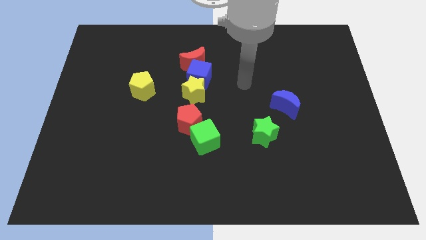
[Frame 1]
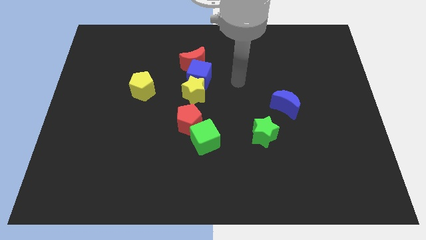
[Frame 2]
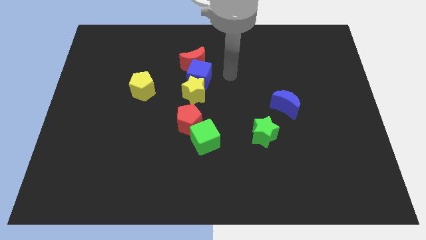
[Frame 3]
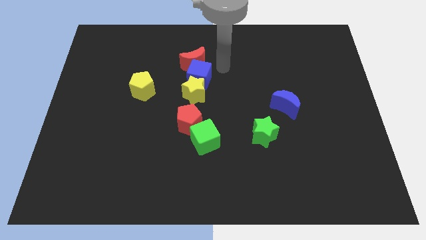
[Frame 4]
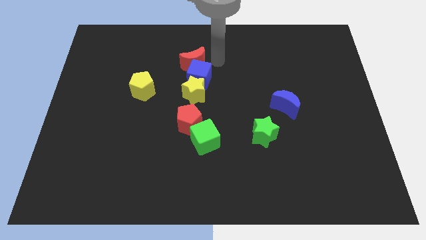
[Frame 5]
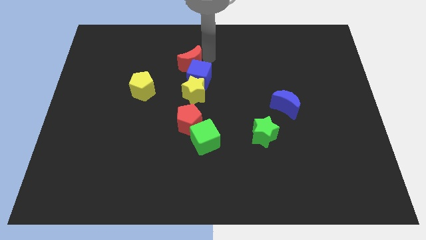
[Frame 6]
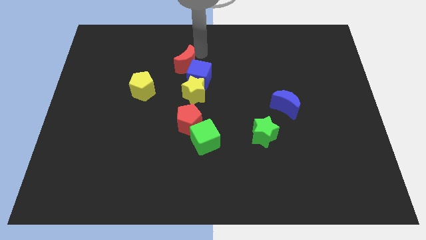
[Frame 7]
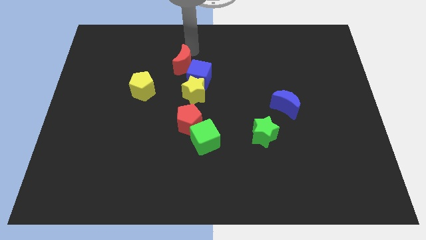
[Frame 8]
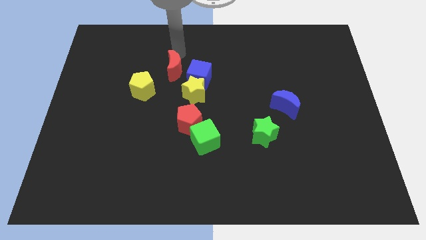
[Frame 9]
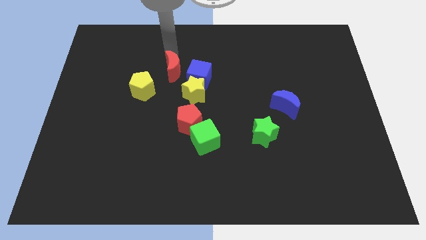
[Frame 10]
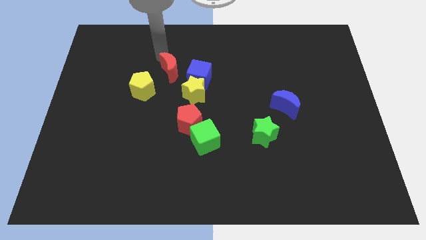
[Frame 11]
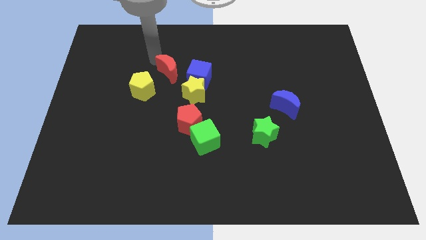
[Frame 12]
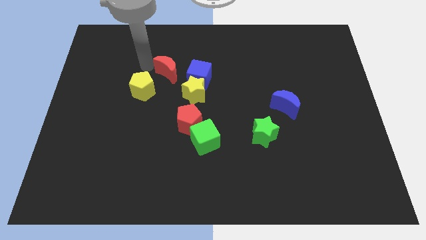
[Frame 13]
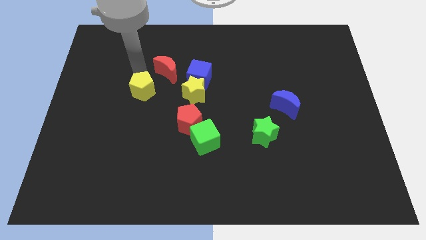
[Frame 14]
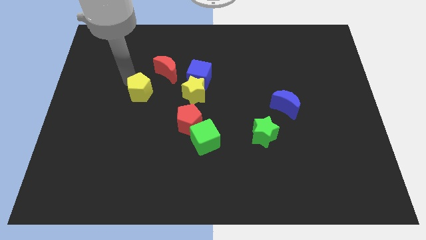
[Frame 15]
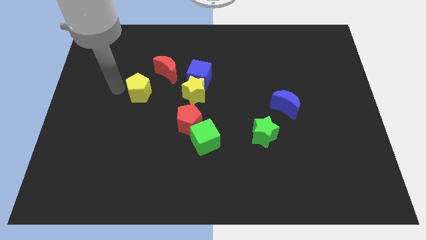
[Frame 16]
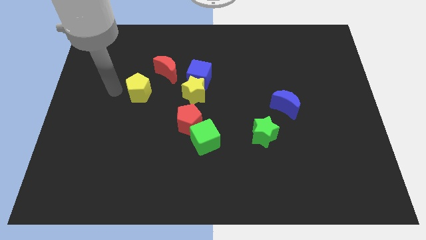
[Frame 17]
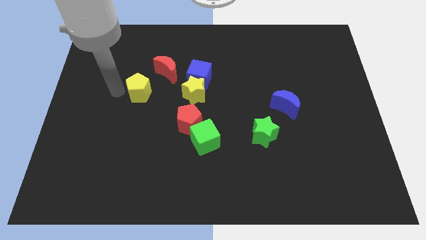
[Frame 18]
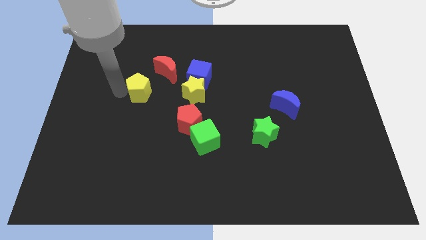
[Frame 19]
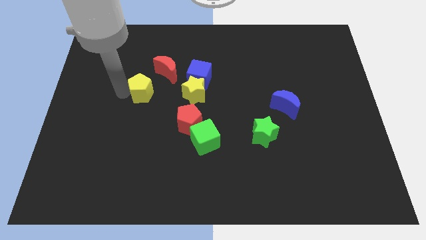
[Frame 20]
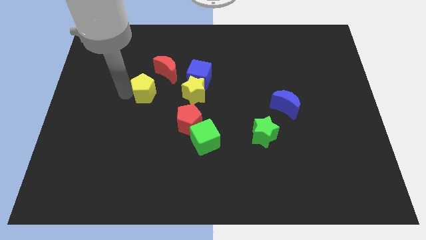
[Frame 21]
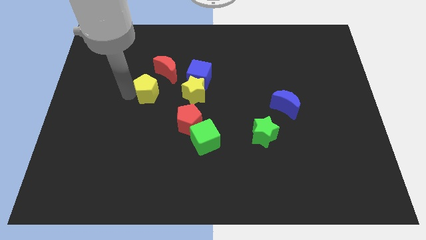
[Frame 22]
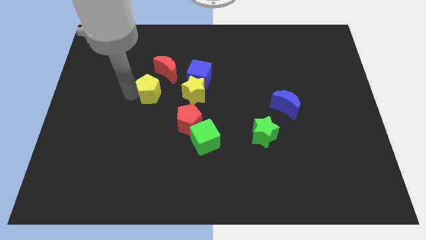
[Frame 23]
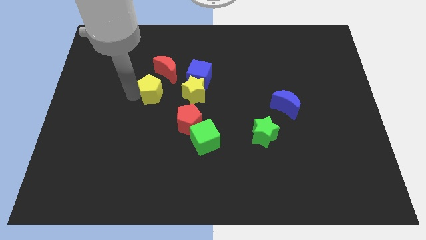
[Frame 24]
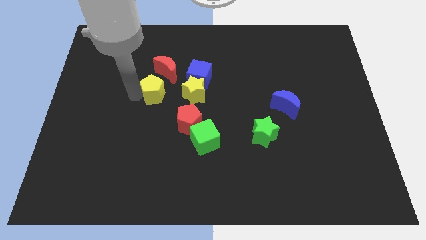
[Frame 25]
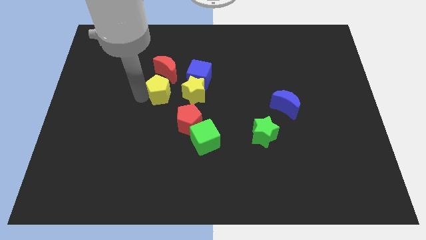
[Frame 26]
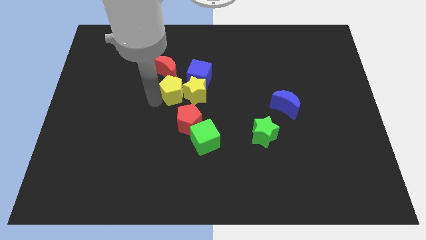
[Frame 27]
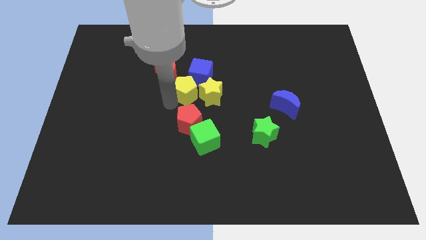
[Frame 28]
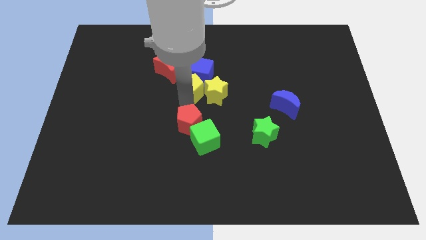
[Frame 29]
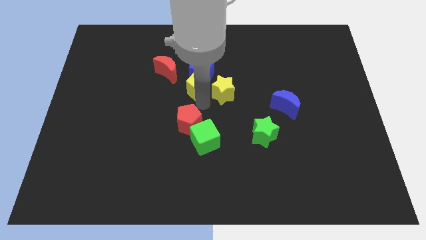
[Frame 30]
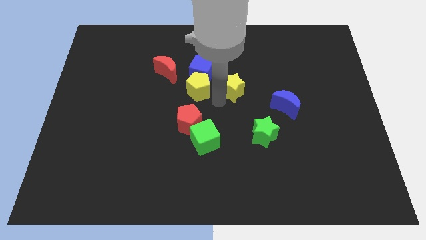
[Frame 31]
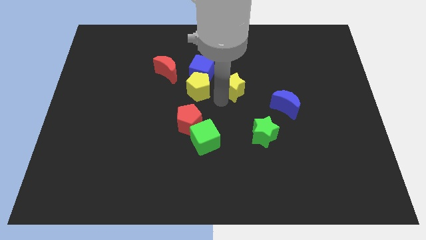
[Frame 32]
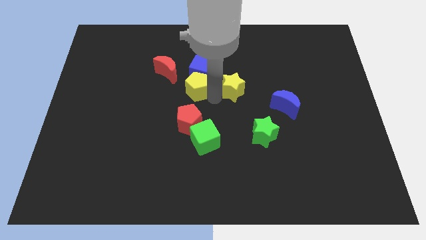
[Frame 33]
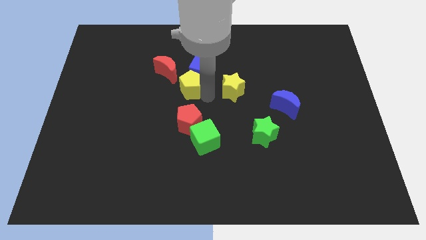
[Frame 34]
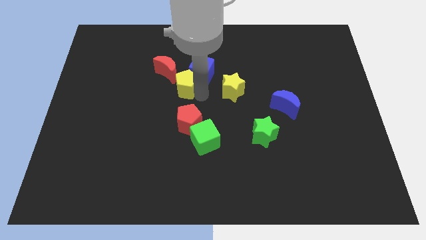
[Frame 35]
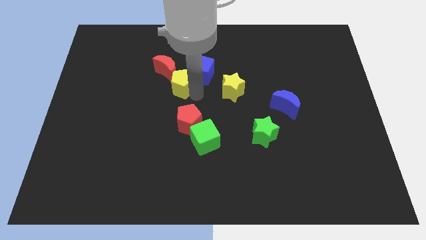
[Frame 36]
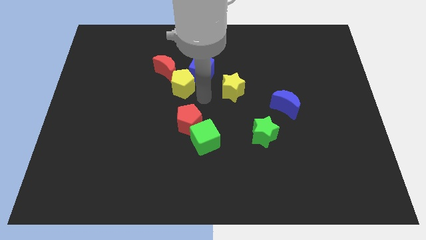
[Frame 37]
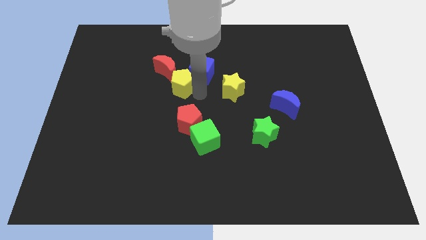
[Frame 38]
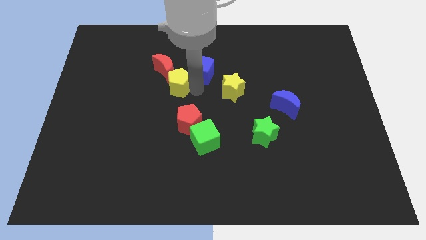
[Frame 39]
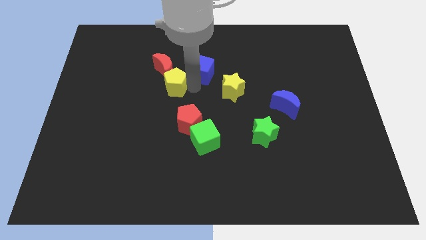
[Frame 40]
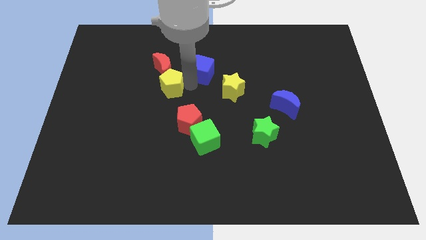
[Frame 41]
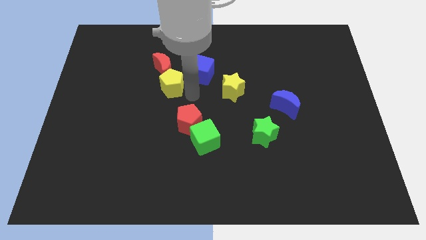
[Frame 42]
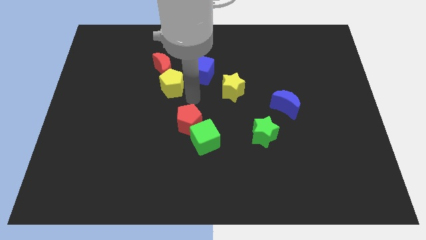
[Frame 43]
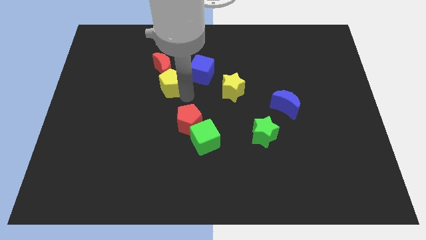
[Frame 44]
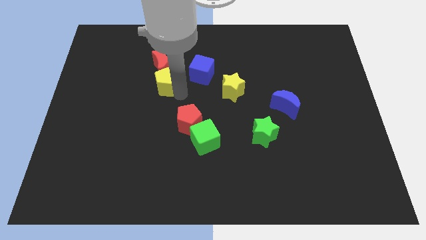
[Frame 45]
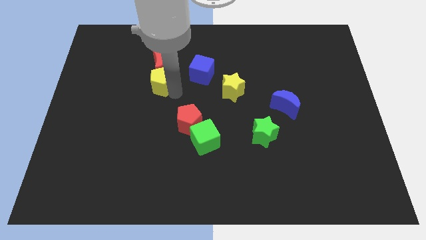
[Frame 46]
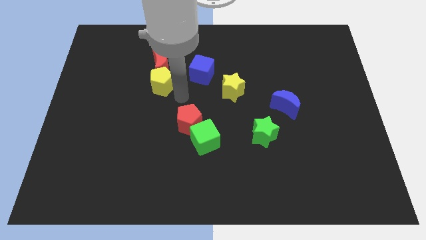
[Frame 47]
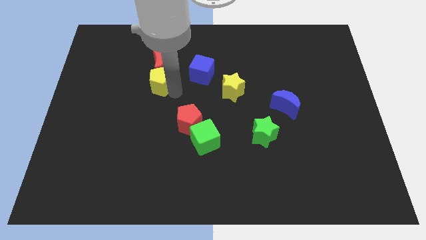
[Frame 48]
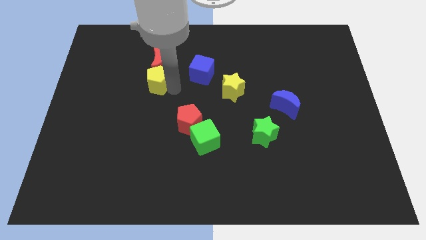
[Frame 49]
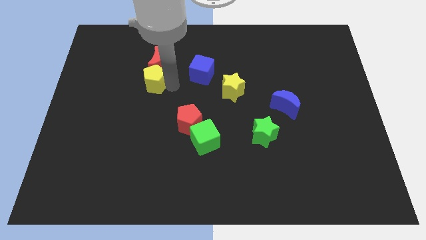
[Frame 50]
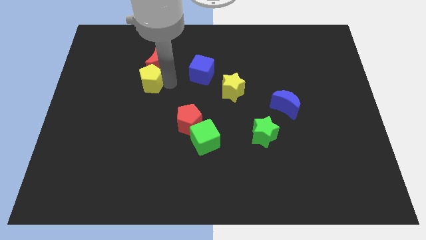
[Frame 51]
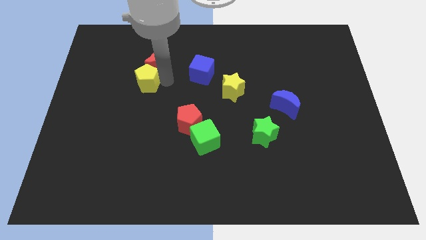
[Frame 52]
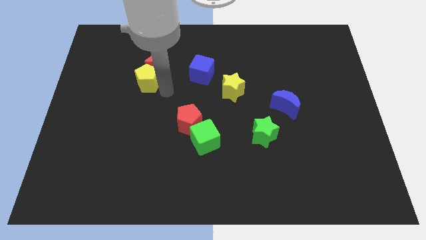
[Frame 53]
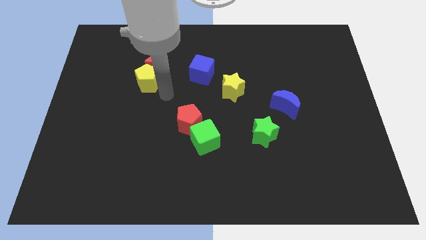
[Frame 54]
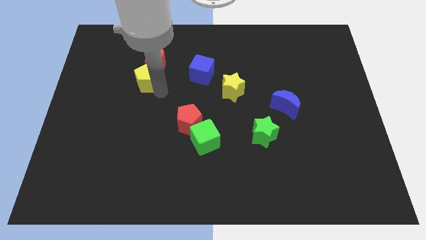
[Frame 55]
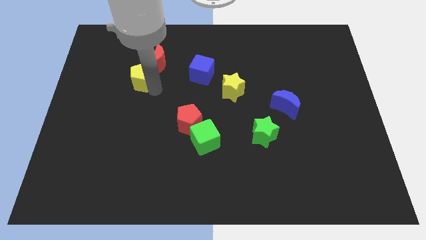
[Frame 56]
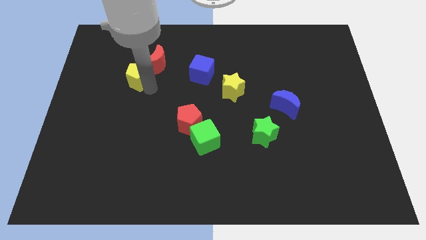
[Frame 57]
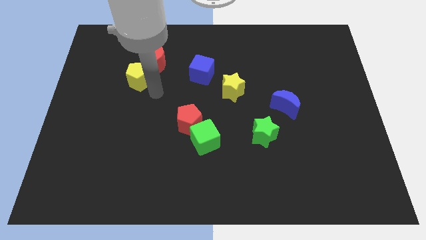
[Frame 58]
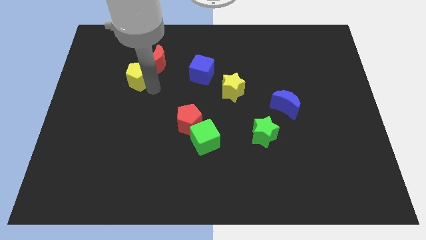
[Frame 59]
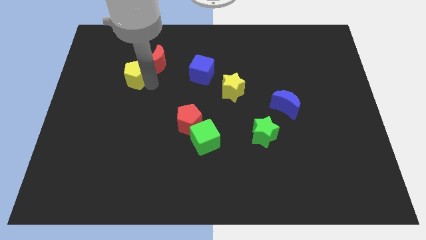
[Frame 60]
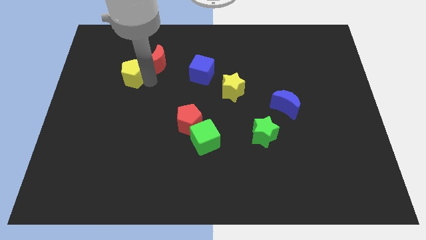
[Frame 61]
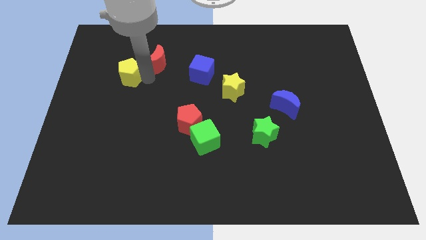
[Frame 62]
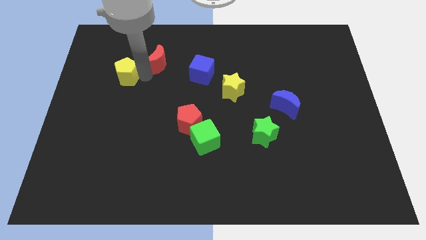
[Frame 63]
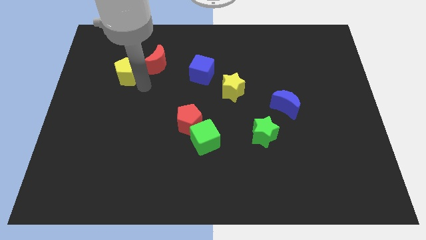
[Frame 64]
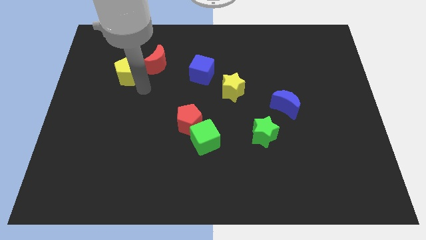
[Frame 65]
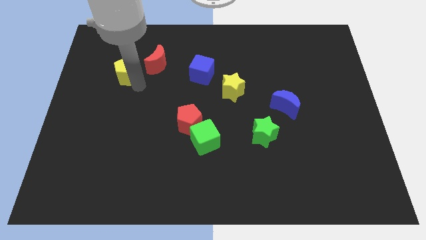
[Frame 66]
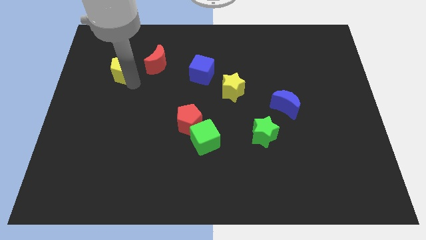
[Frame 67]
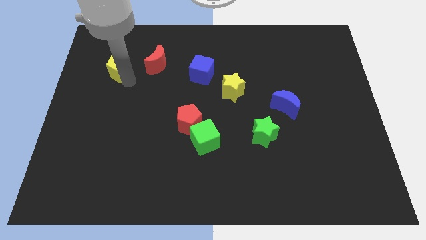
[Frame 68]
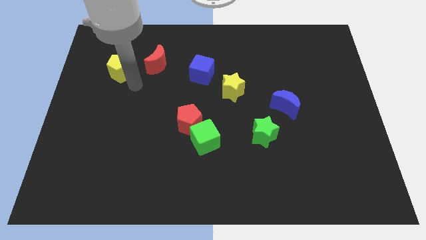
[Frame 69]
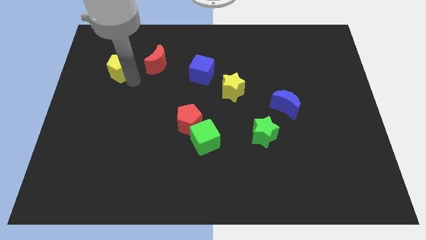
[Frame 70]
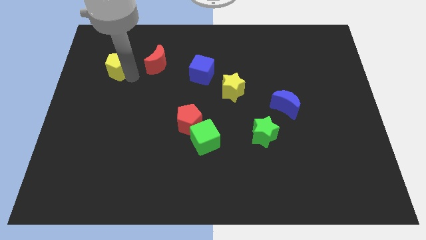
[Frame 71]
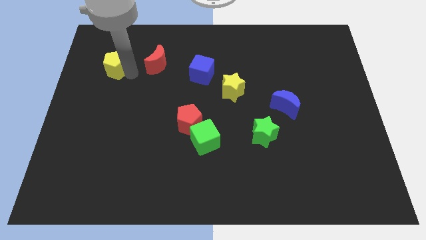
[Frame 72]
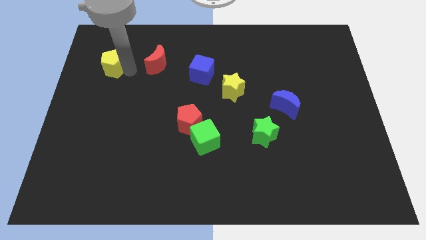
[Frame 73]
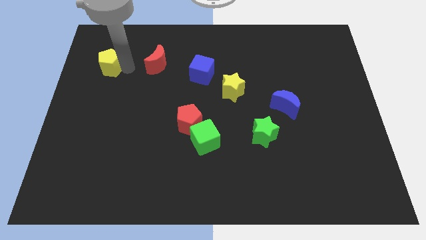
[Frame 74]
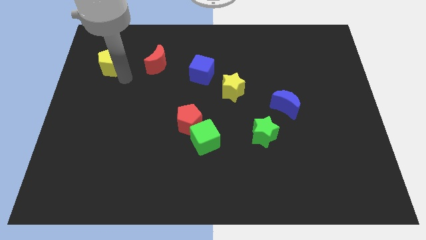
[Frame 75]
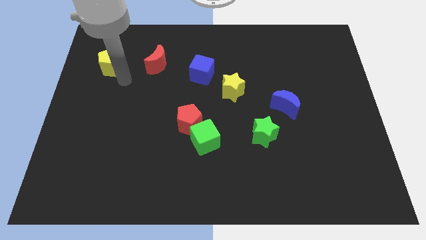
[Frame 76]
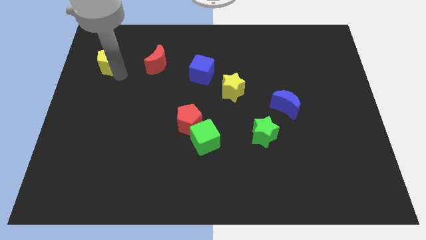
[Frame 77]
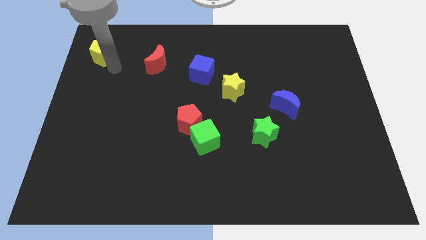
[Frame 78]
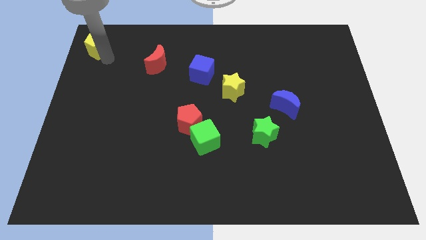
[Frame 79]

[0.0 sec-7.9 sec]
slide the yellow pentagon to the top left of the board
